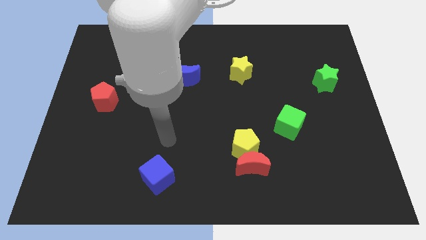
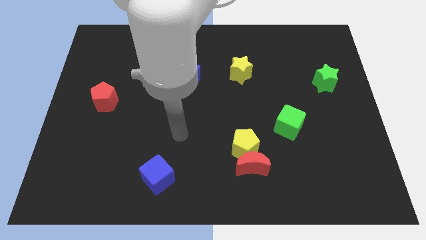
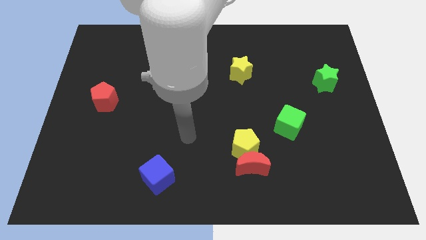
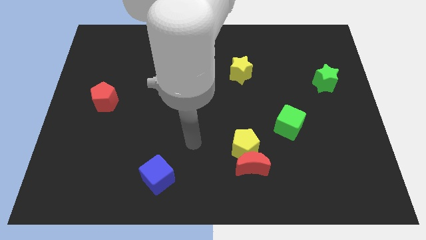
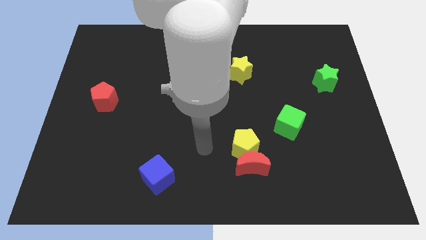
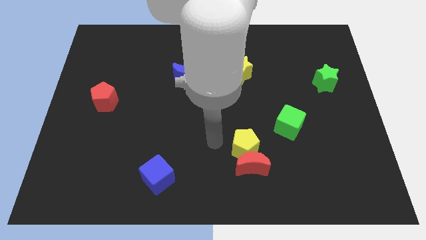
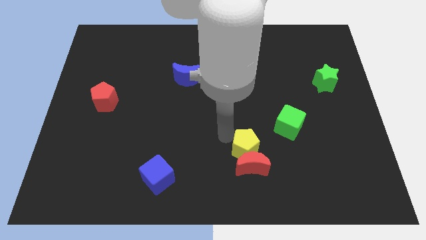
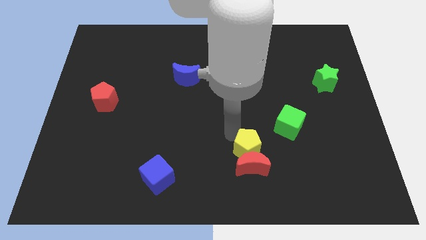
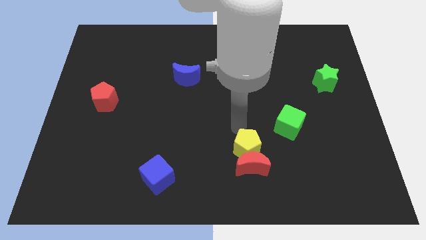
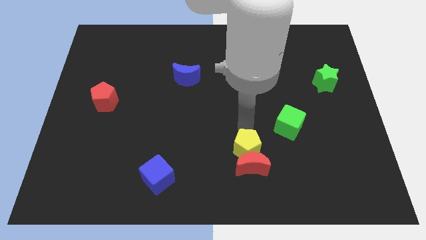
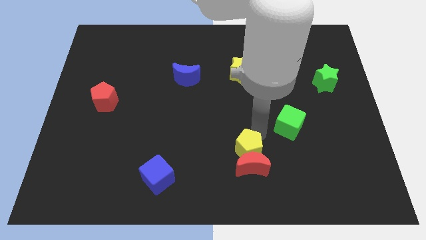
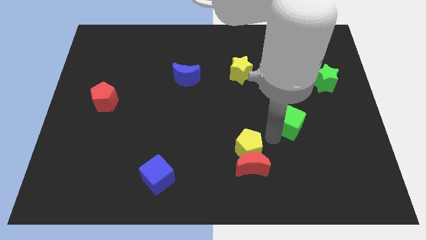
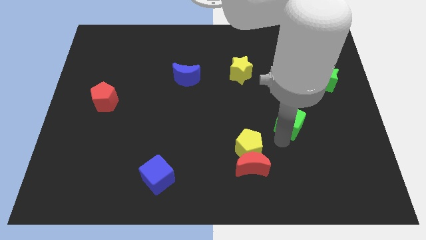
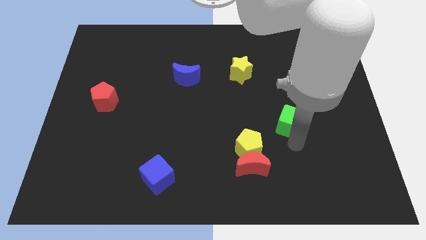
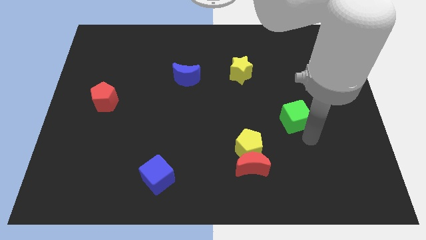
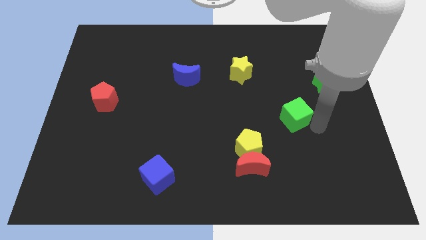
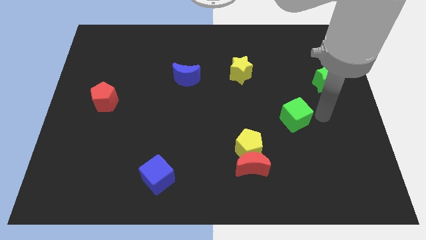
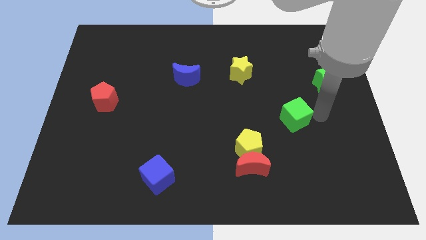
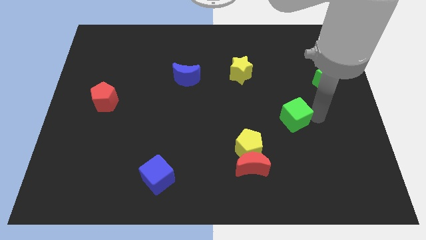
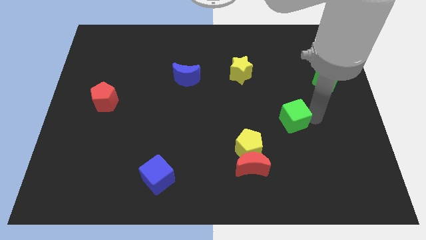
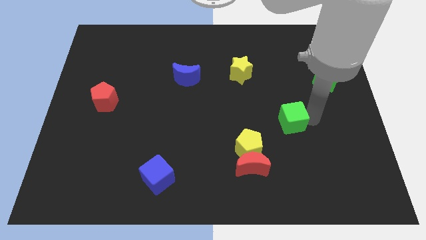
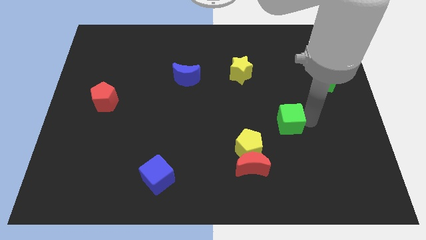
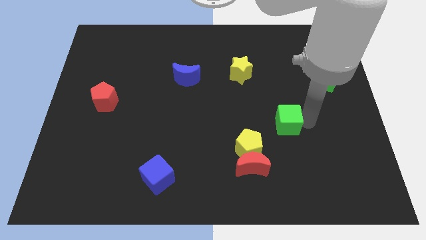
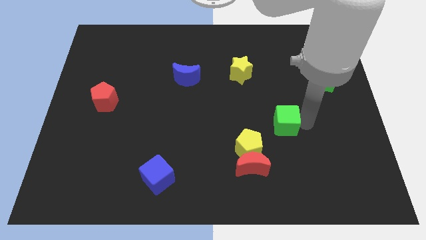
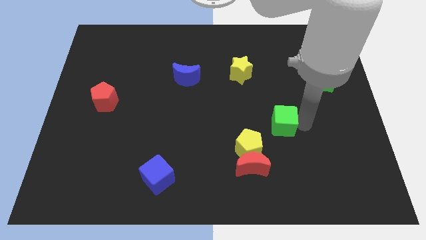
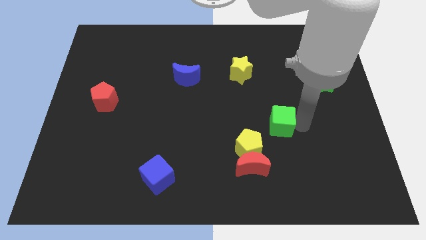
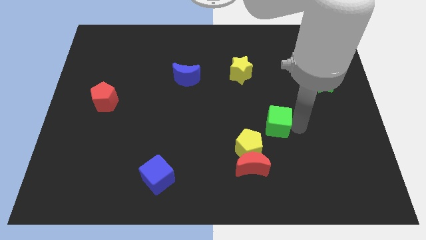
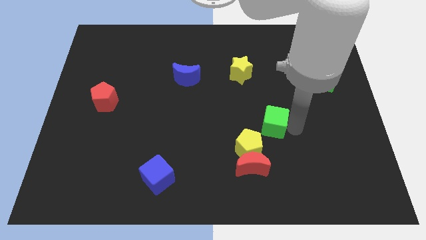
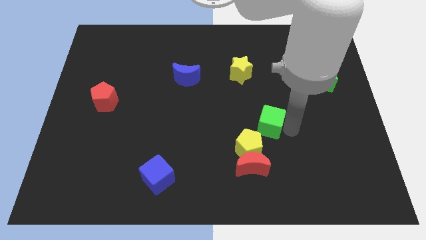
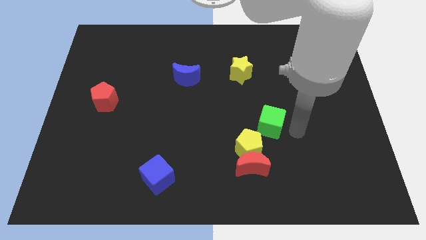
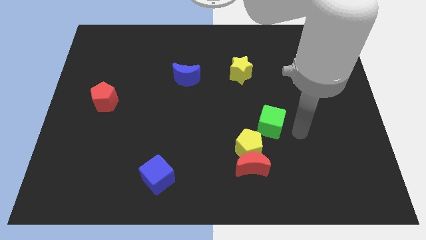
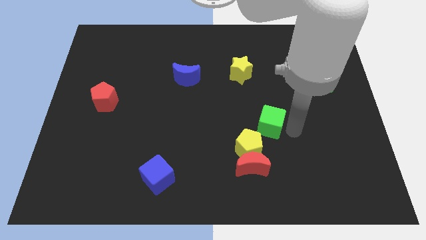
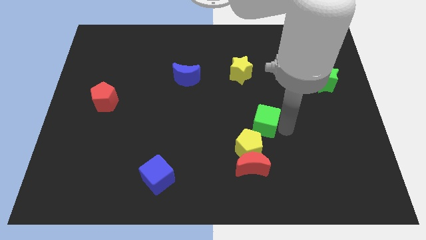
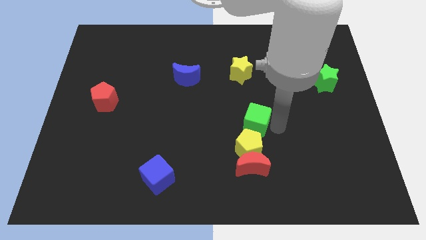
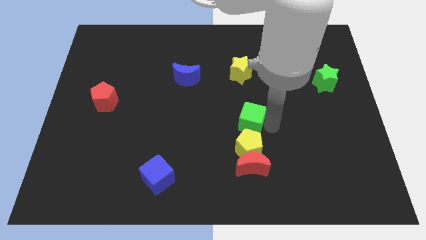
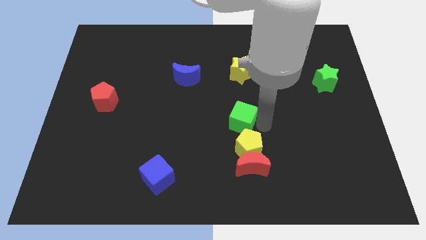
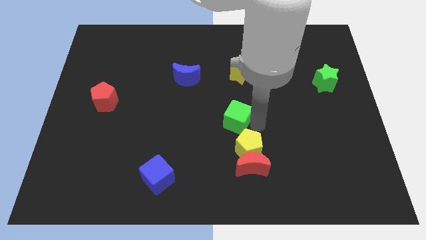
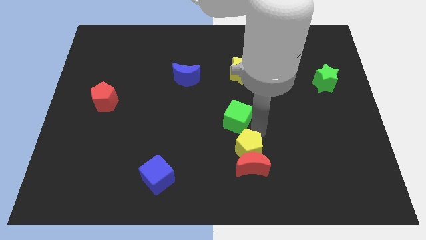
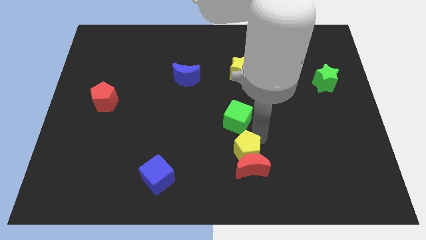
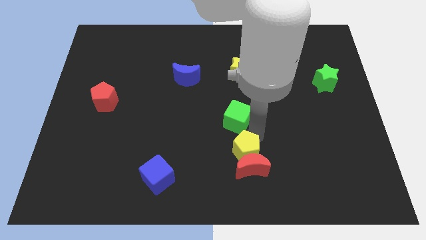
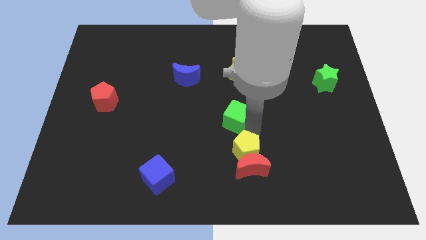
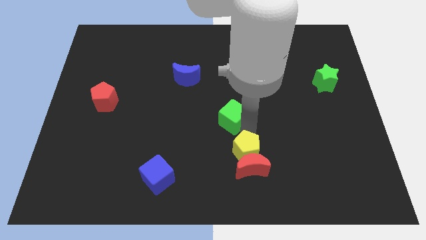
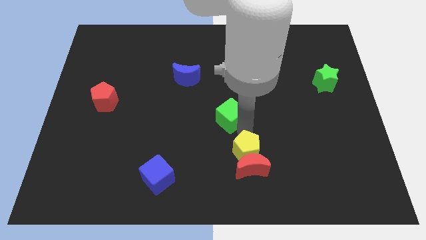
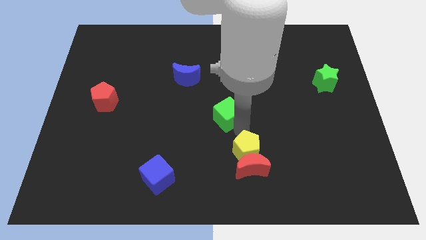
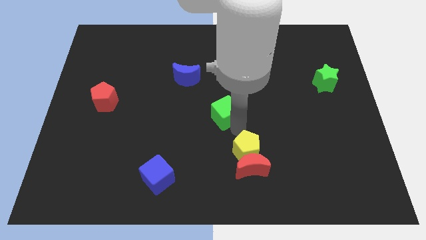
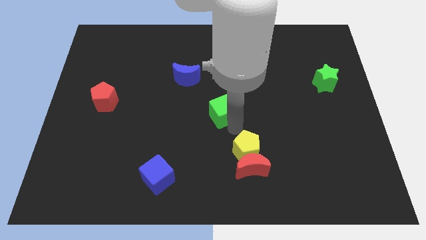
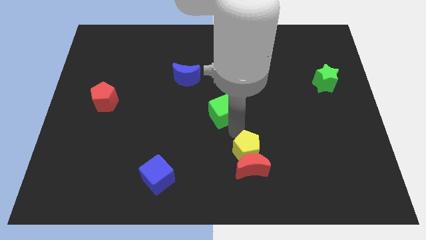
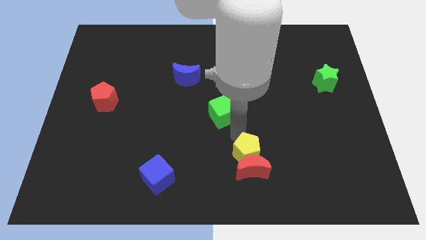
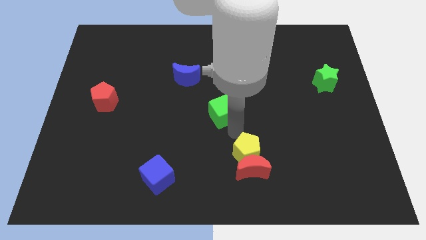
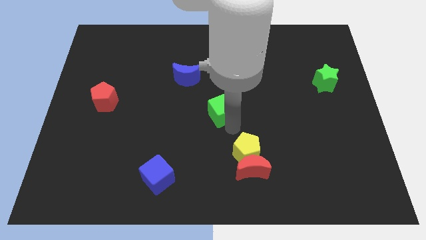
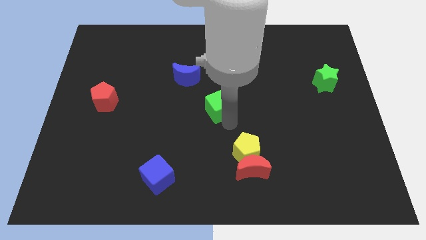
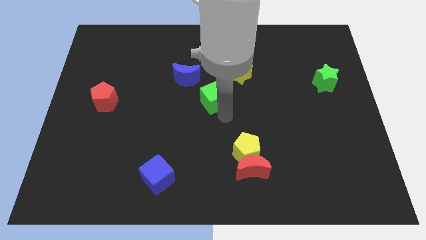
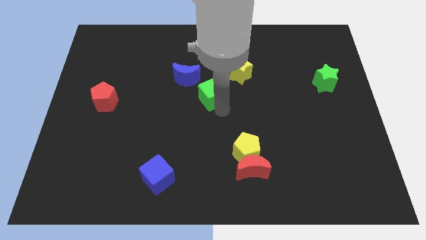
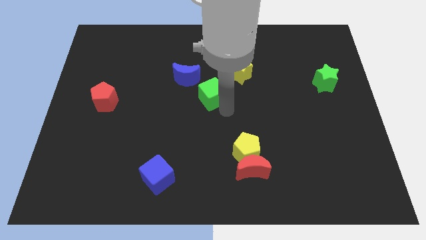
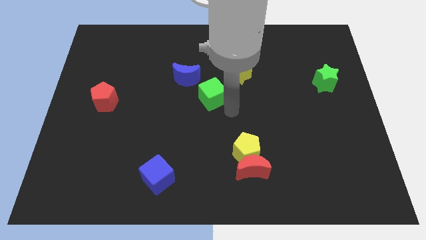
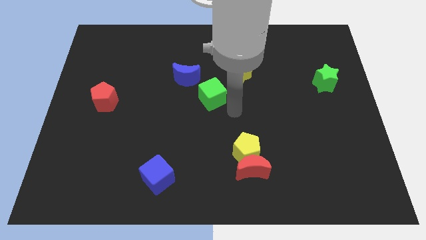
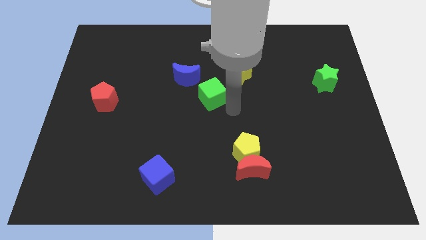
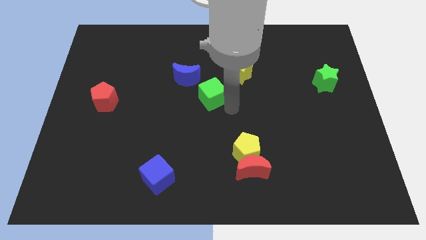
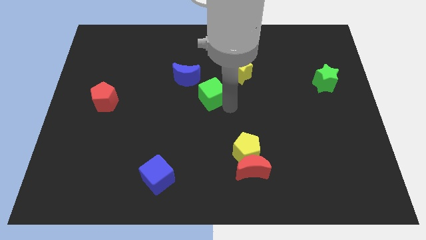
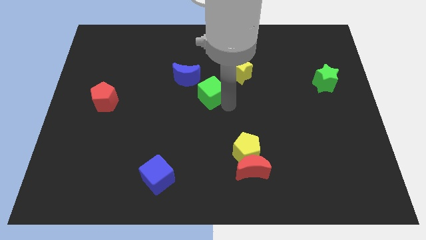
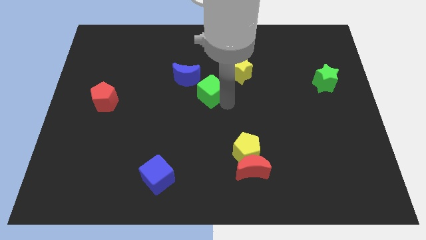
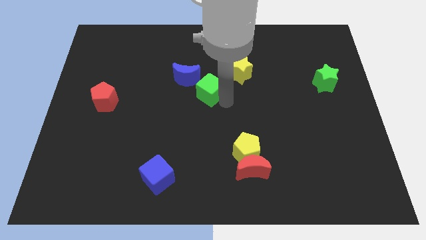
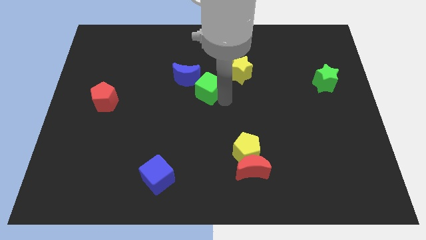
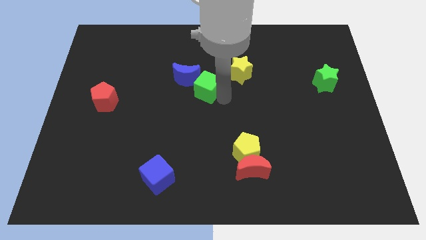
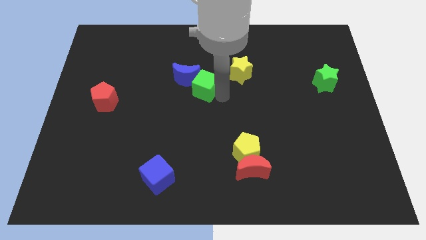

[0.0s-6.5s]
push the green cube towards the blue moon

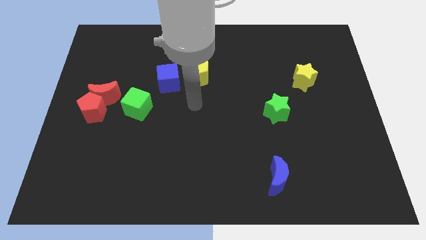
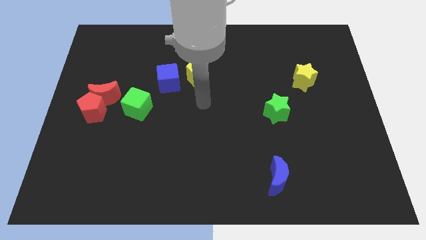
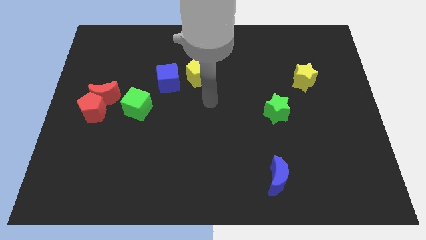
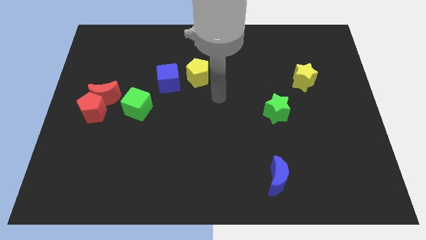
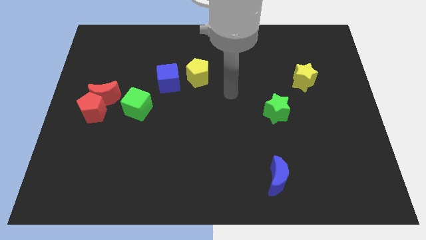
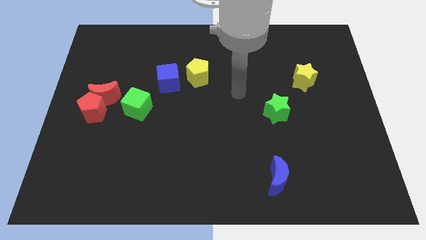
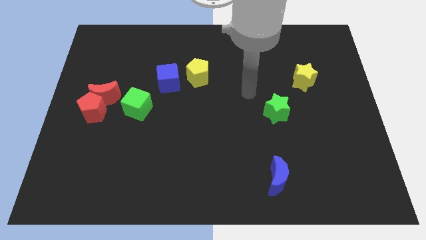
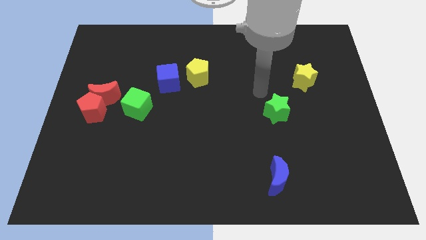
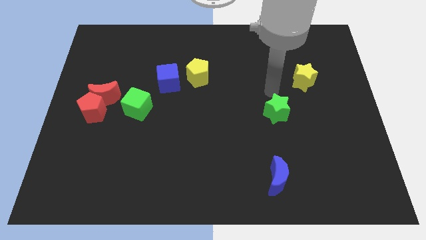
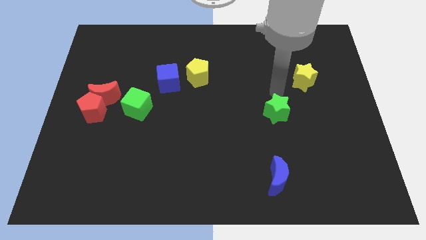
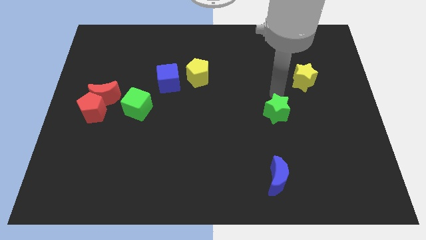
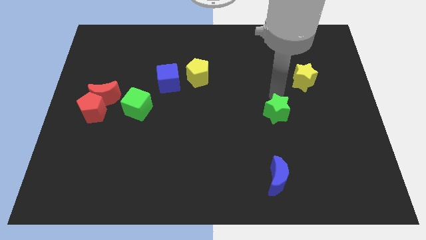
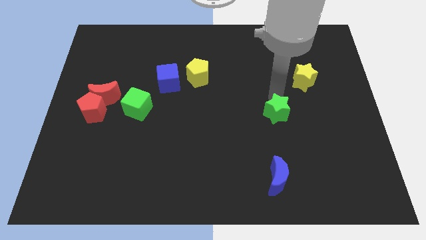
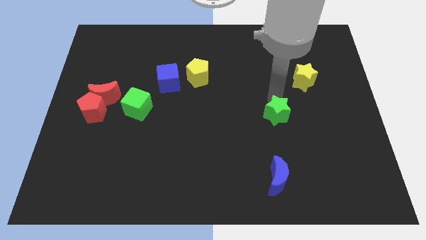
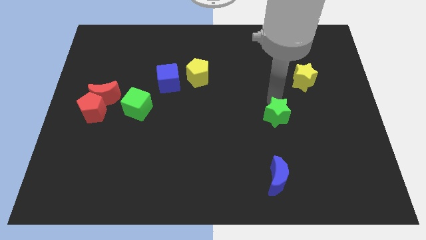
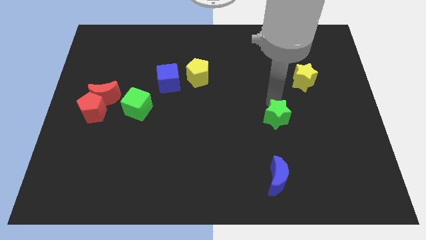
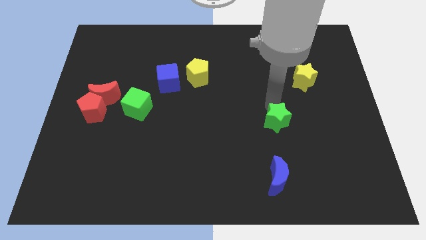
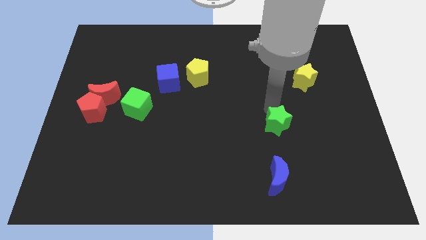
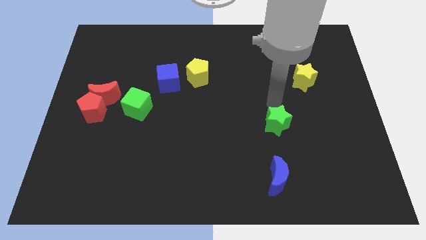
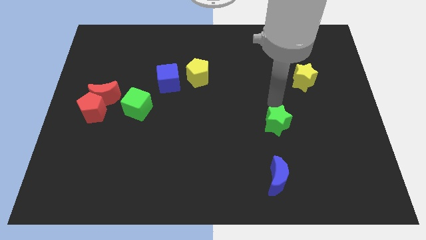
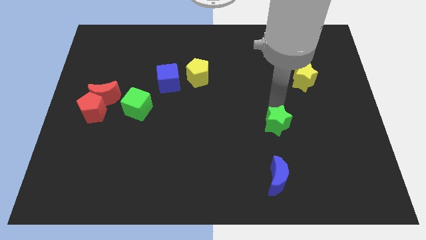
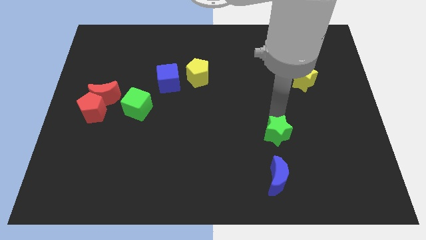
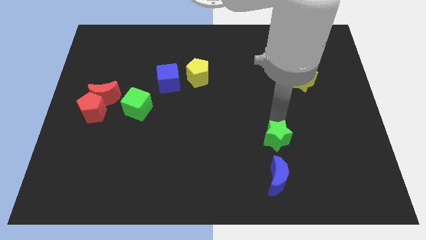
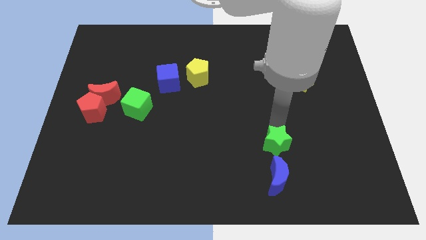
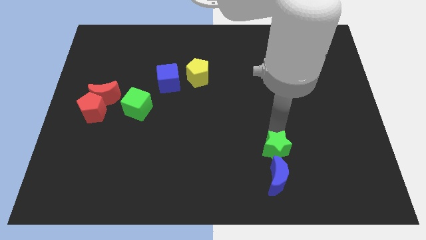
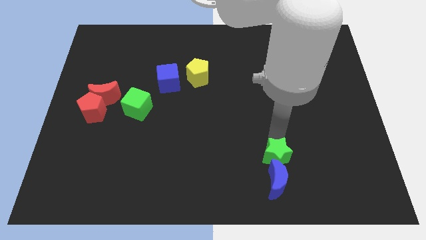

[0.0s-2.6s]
slide the green star close to the blue moon
